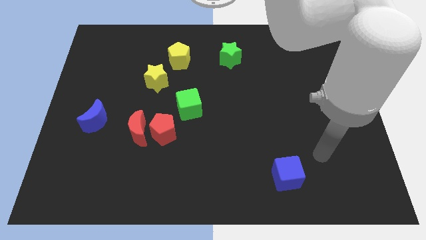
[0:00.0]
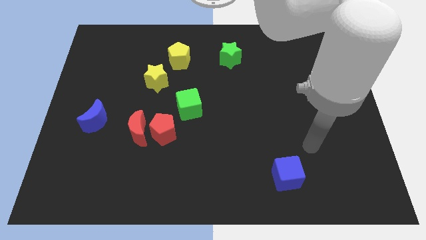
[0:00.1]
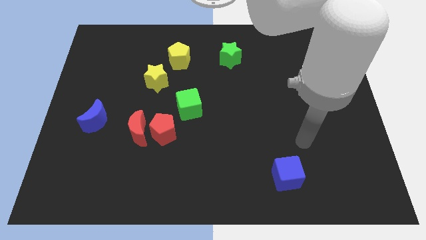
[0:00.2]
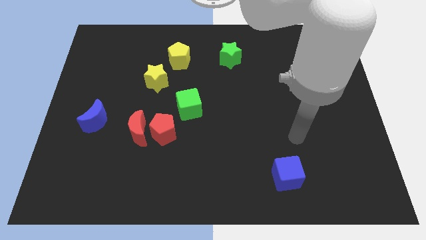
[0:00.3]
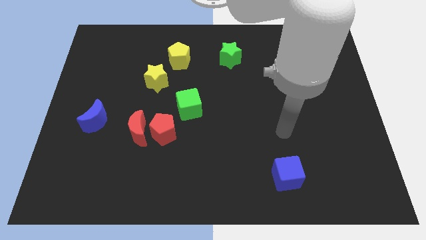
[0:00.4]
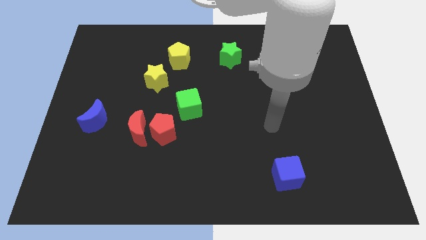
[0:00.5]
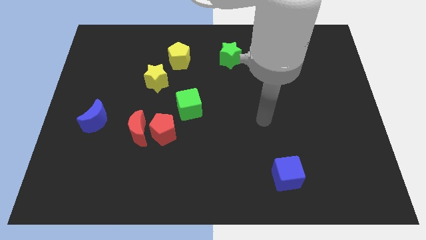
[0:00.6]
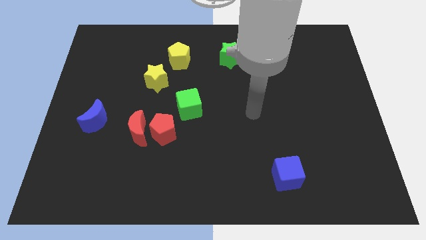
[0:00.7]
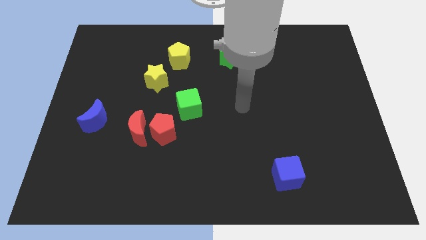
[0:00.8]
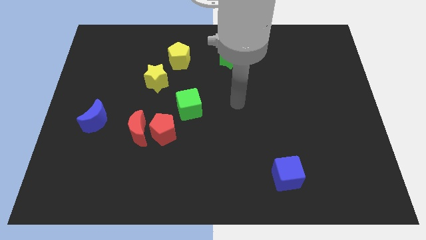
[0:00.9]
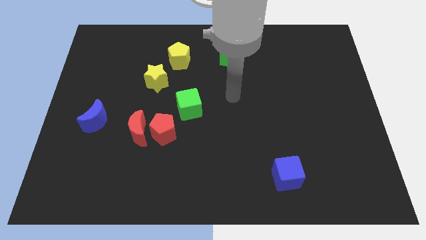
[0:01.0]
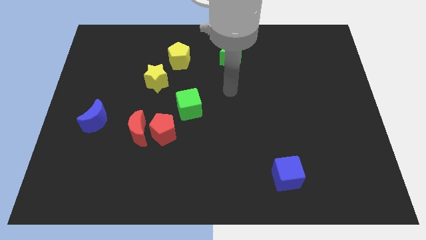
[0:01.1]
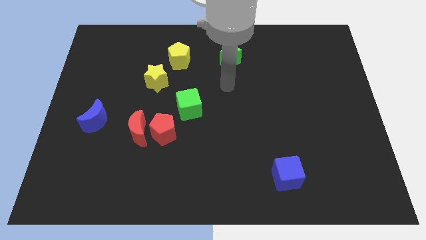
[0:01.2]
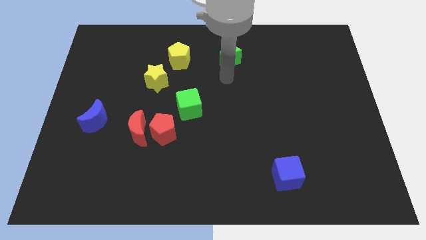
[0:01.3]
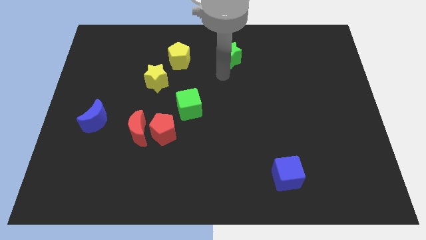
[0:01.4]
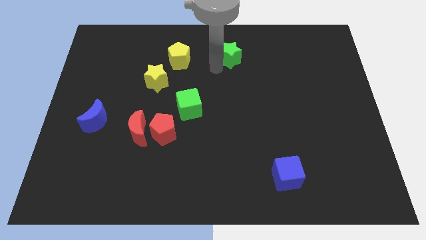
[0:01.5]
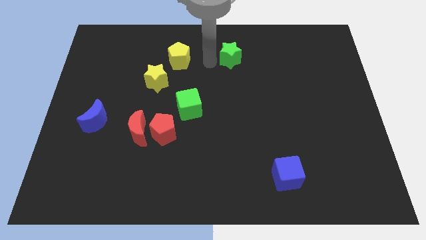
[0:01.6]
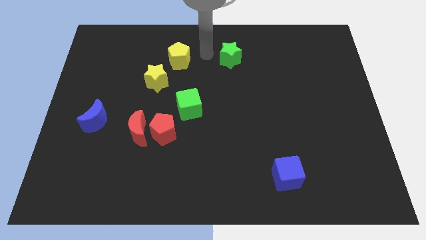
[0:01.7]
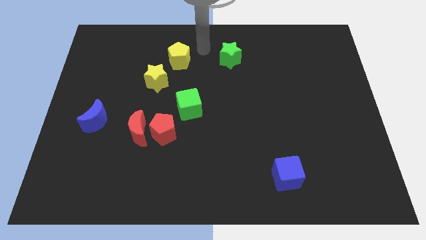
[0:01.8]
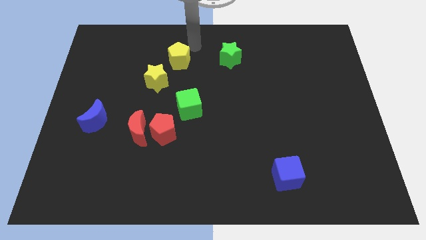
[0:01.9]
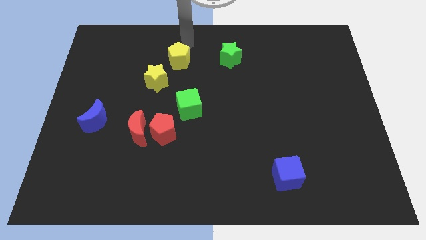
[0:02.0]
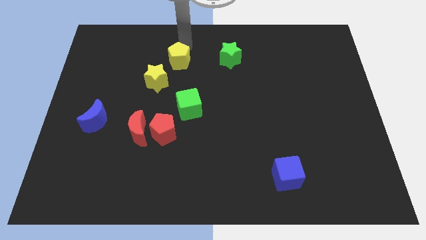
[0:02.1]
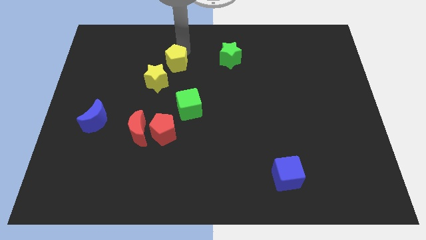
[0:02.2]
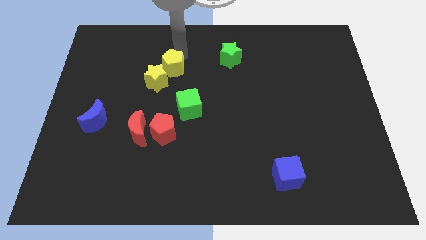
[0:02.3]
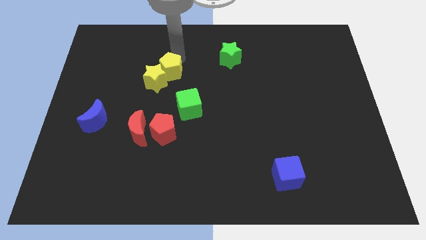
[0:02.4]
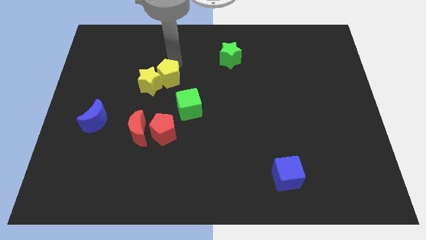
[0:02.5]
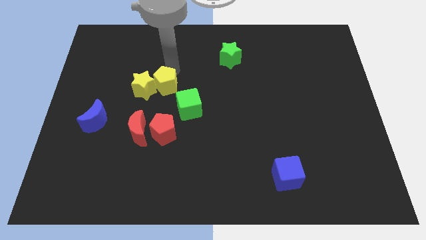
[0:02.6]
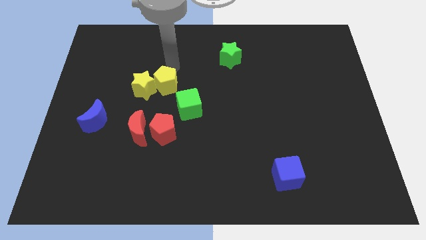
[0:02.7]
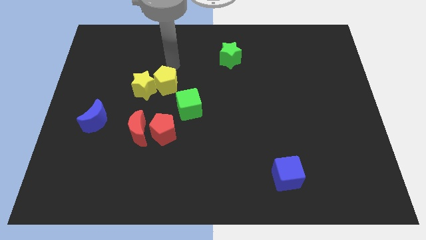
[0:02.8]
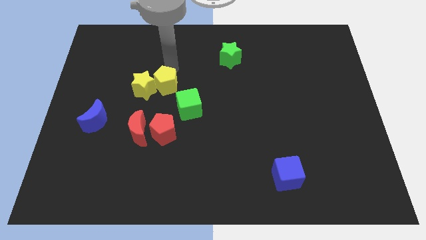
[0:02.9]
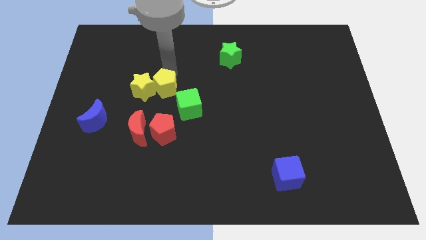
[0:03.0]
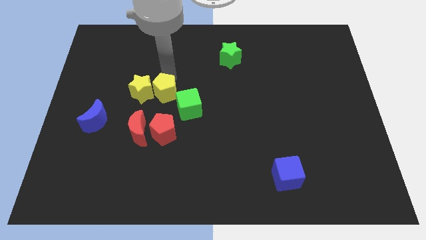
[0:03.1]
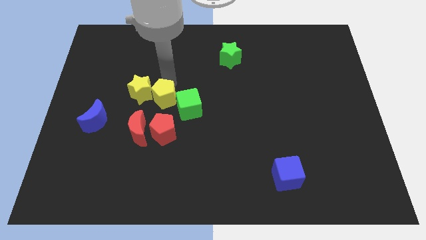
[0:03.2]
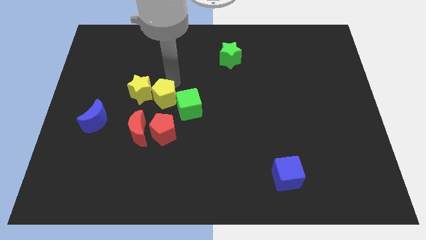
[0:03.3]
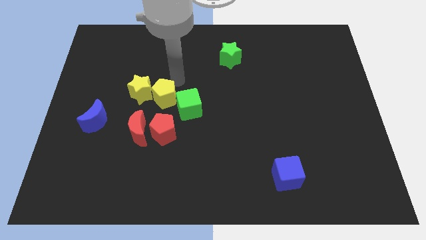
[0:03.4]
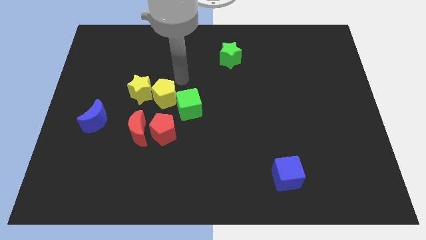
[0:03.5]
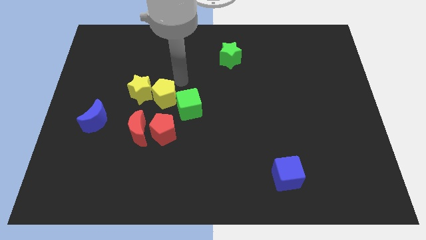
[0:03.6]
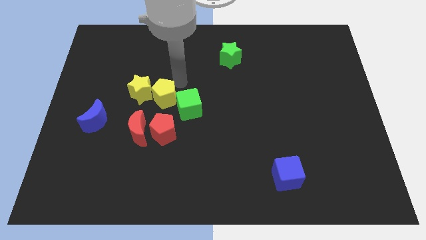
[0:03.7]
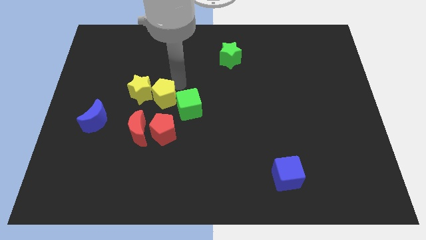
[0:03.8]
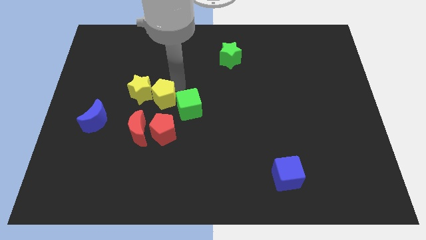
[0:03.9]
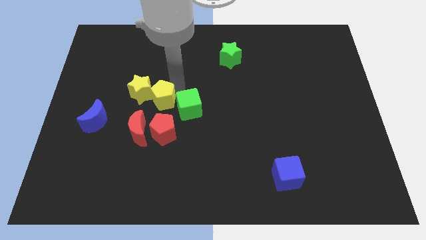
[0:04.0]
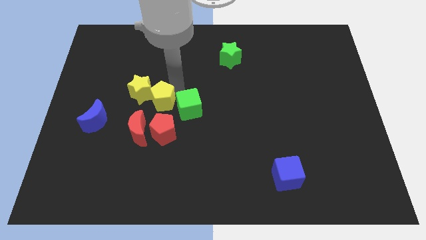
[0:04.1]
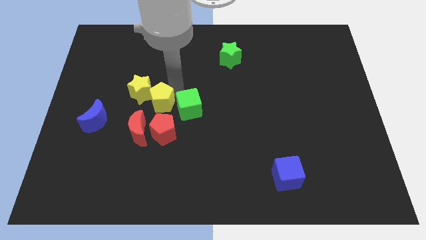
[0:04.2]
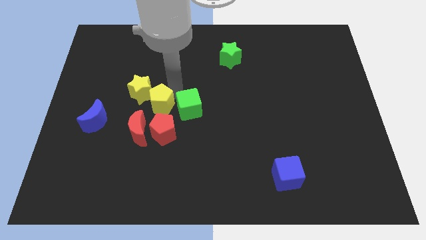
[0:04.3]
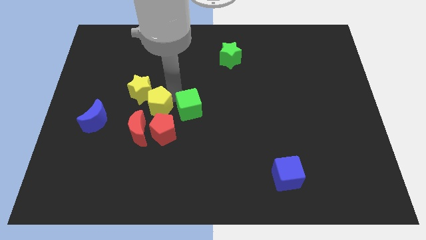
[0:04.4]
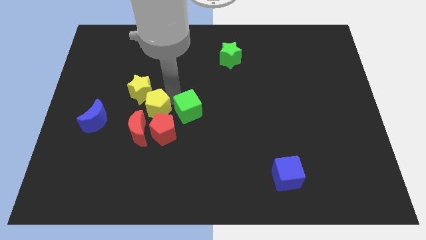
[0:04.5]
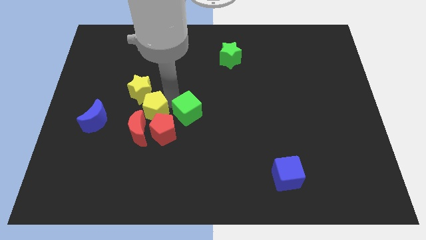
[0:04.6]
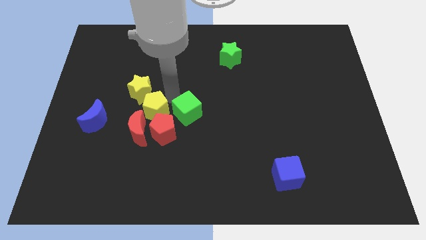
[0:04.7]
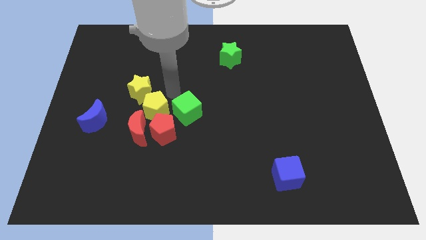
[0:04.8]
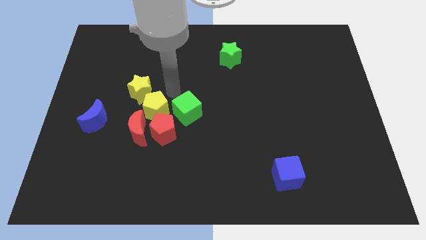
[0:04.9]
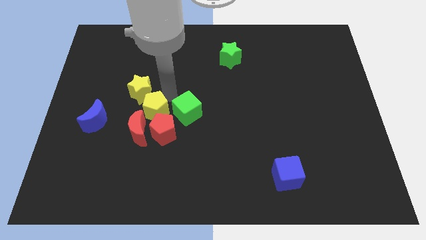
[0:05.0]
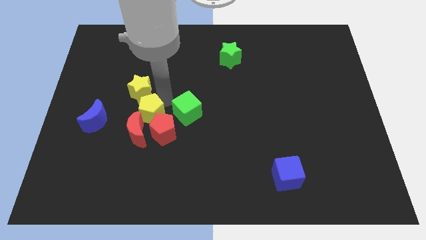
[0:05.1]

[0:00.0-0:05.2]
slide the yellow pentagon towards the red moon

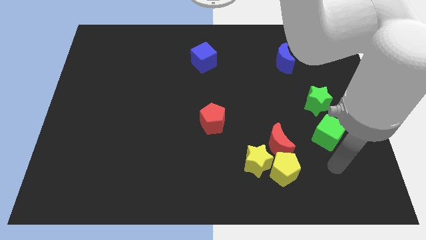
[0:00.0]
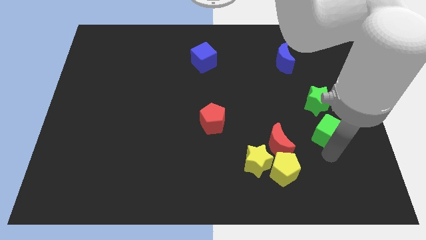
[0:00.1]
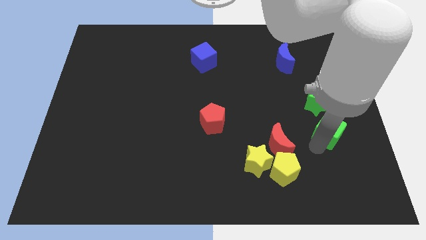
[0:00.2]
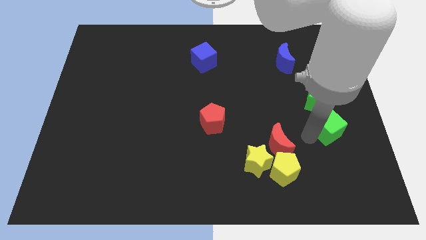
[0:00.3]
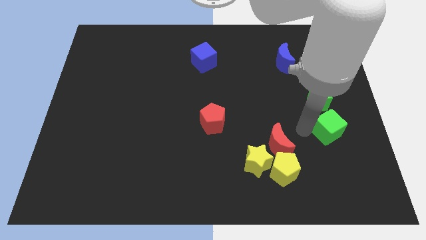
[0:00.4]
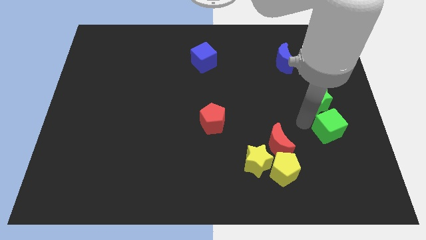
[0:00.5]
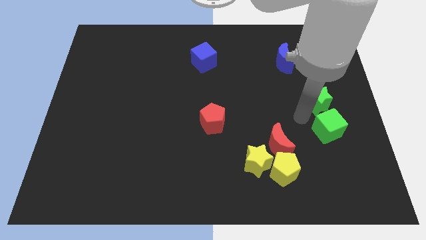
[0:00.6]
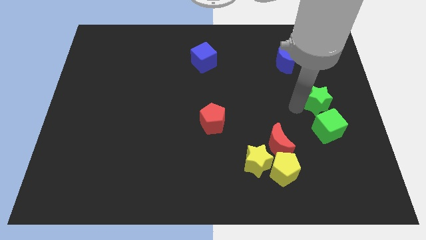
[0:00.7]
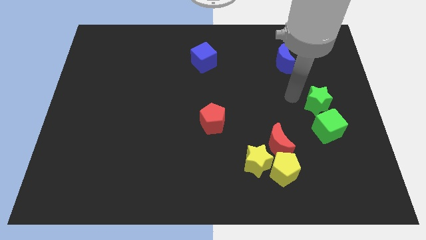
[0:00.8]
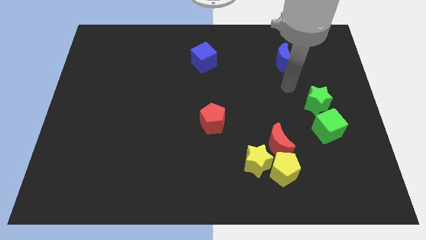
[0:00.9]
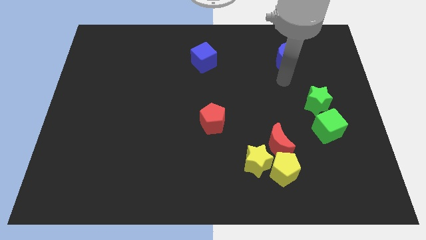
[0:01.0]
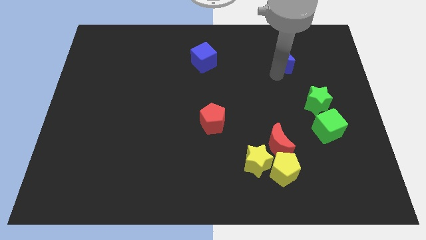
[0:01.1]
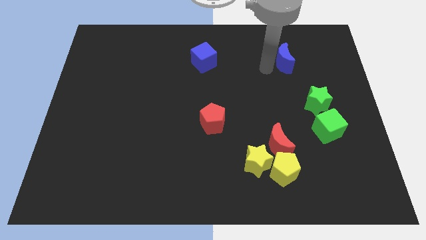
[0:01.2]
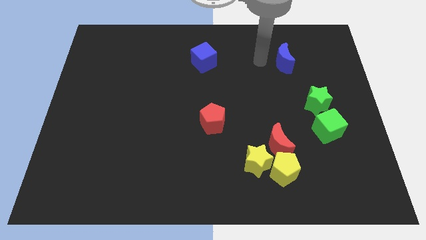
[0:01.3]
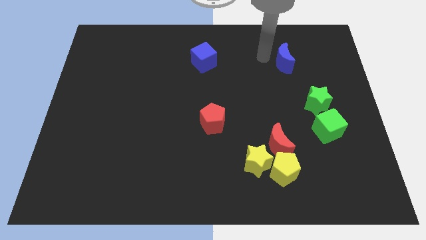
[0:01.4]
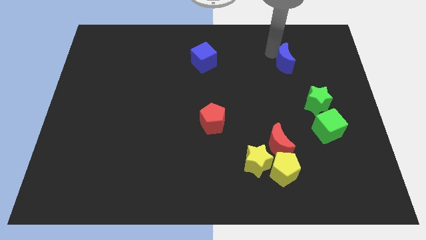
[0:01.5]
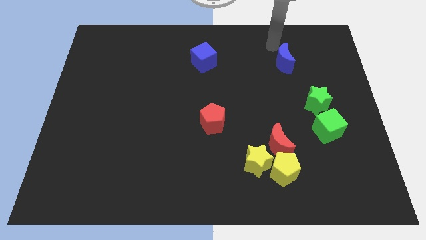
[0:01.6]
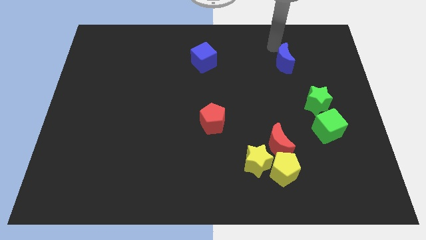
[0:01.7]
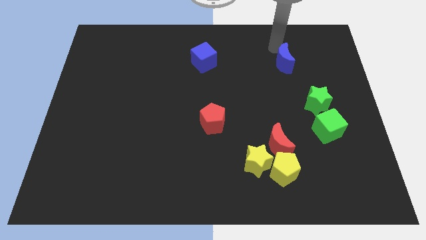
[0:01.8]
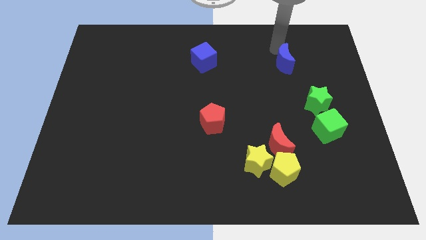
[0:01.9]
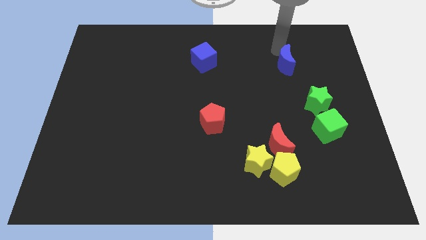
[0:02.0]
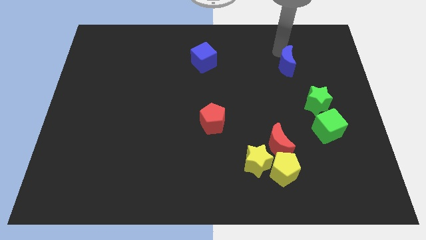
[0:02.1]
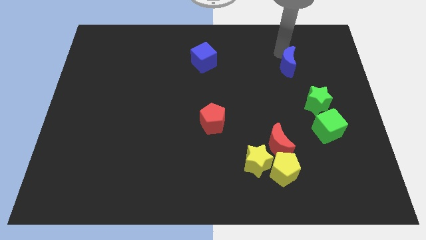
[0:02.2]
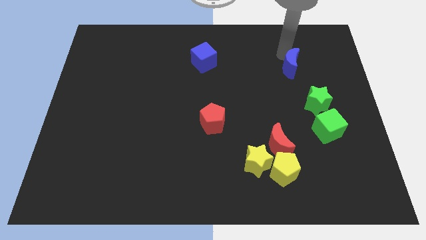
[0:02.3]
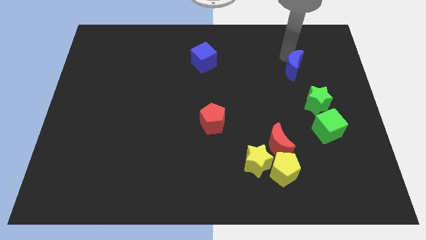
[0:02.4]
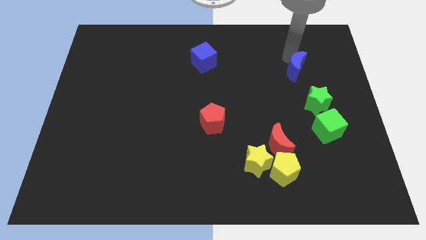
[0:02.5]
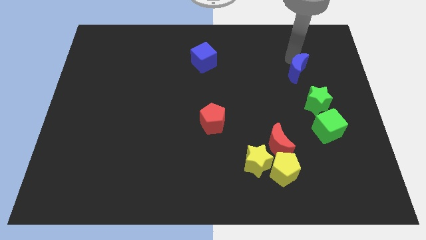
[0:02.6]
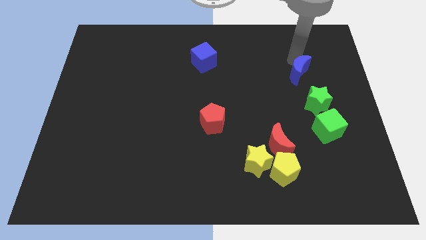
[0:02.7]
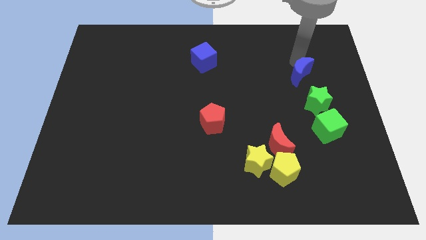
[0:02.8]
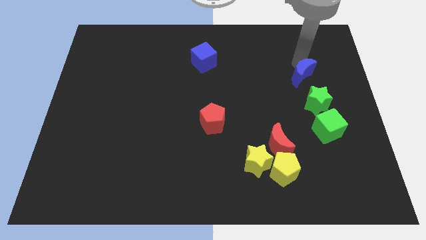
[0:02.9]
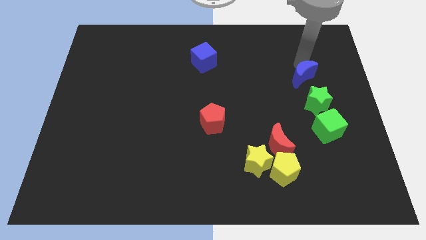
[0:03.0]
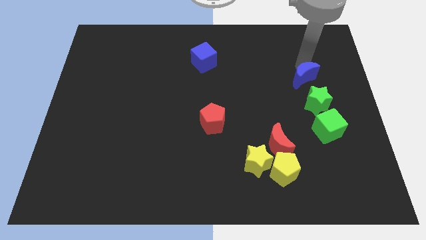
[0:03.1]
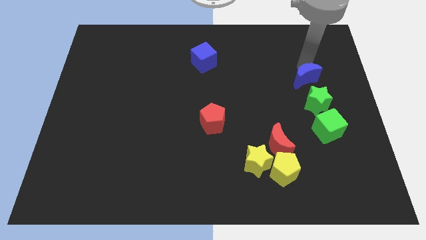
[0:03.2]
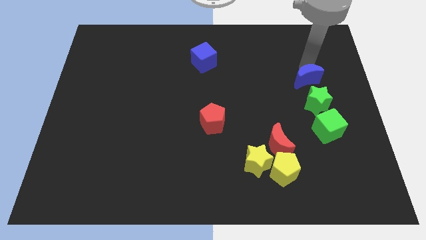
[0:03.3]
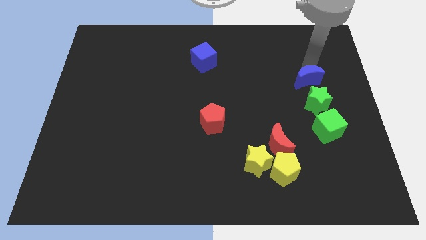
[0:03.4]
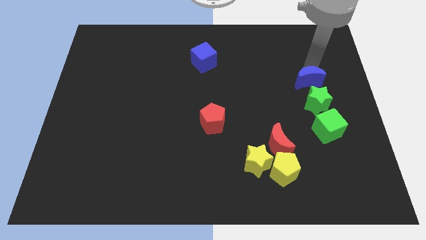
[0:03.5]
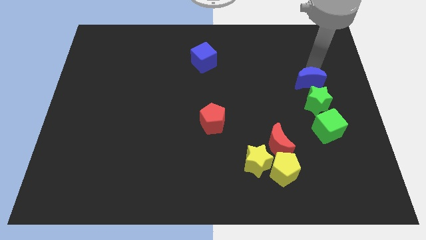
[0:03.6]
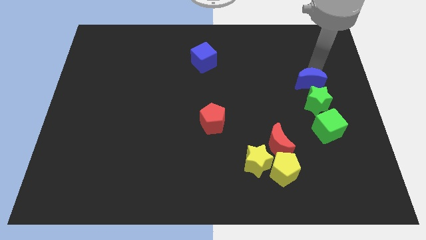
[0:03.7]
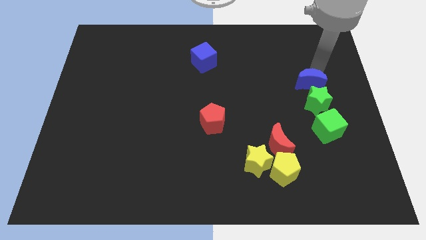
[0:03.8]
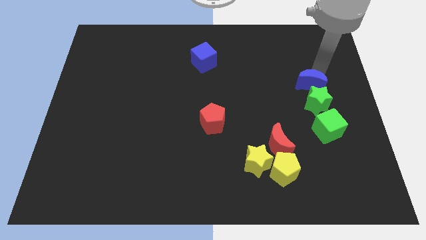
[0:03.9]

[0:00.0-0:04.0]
put the blue moon towards the green star
